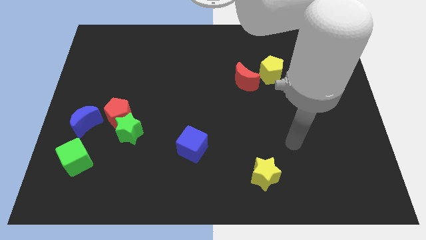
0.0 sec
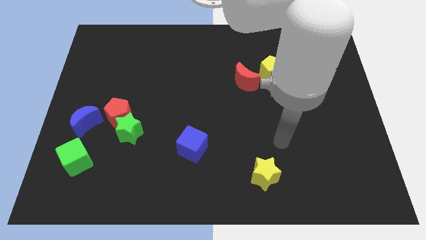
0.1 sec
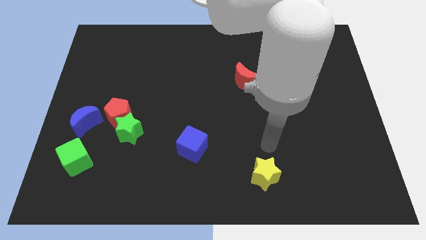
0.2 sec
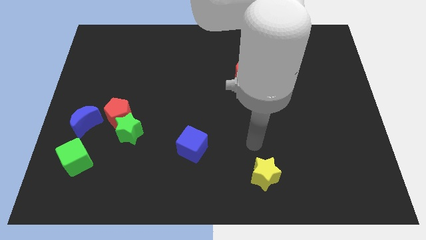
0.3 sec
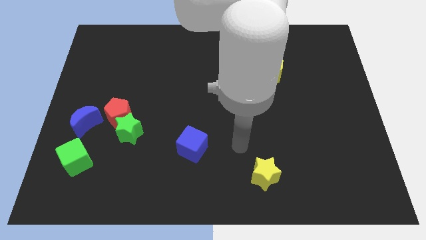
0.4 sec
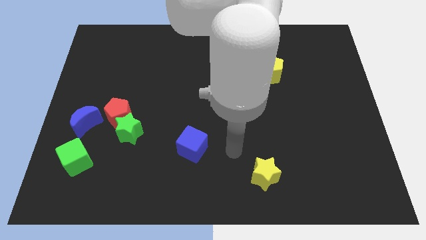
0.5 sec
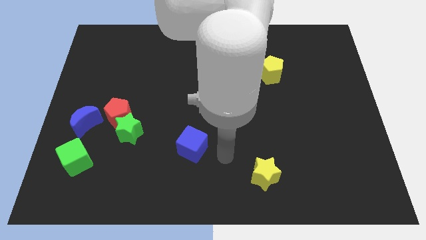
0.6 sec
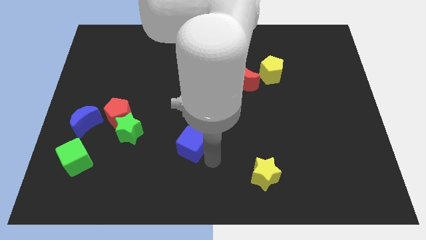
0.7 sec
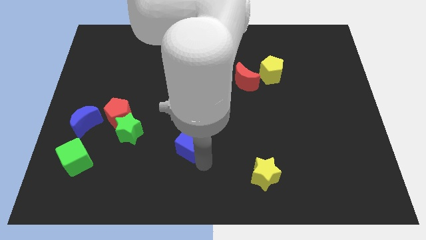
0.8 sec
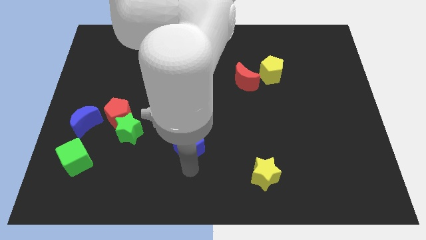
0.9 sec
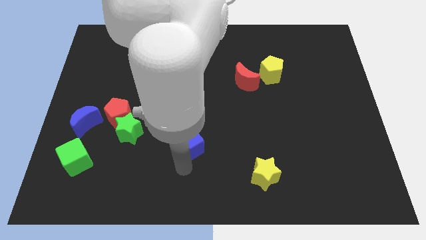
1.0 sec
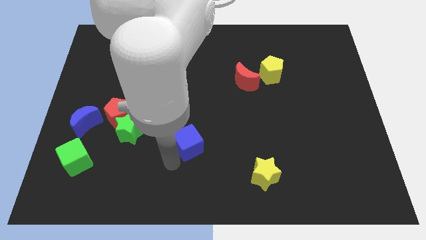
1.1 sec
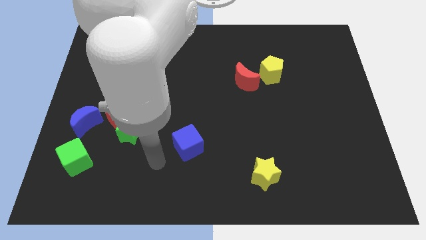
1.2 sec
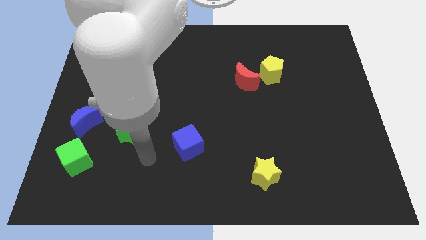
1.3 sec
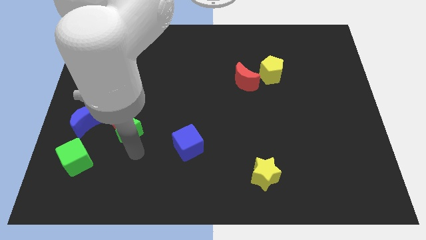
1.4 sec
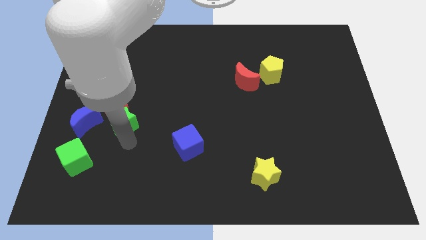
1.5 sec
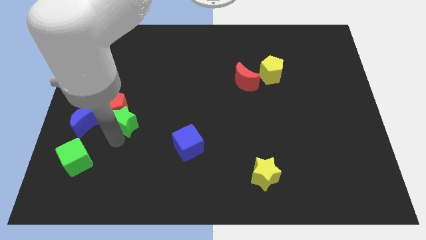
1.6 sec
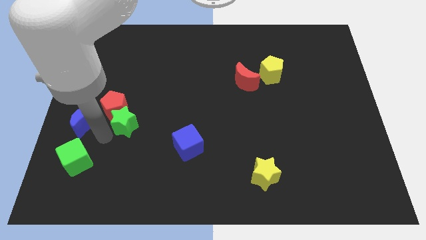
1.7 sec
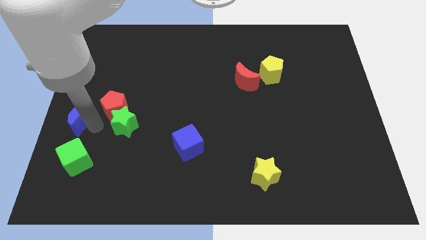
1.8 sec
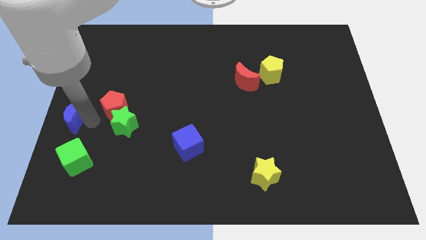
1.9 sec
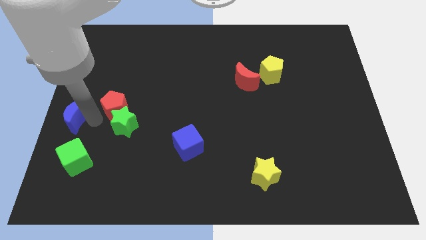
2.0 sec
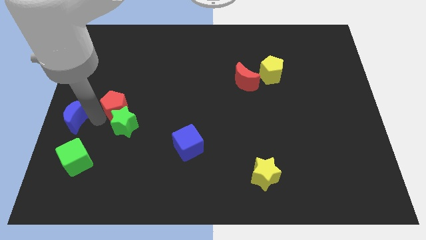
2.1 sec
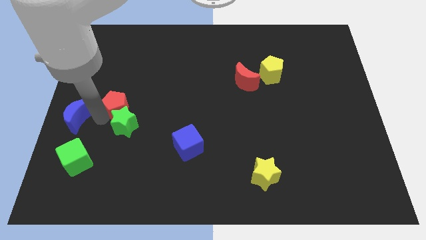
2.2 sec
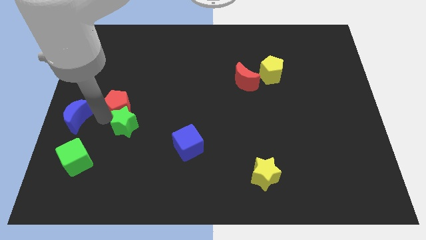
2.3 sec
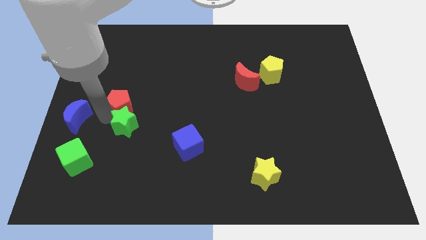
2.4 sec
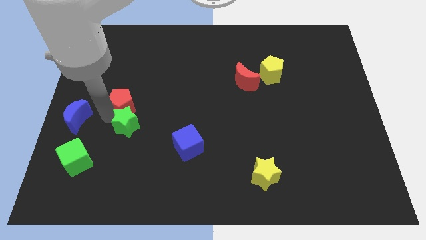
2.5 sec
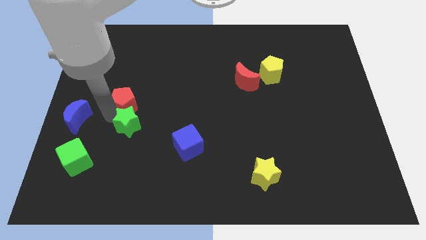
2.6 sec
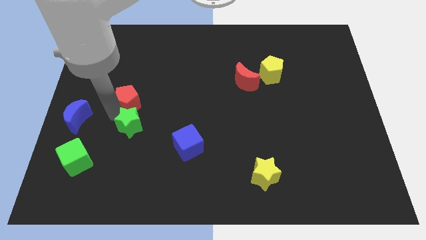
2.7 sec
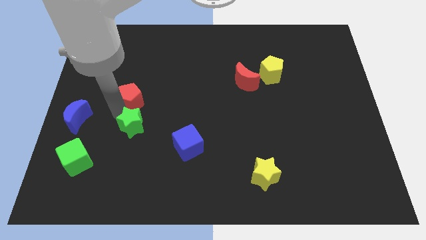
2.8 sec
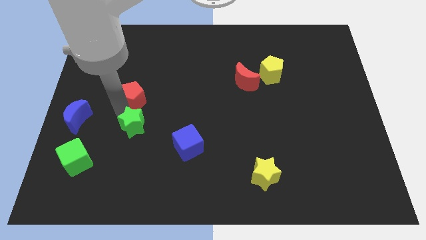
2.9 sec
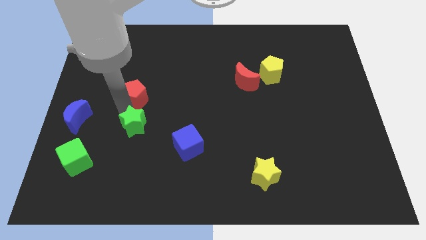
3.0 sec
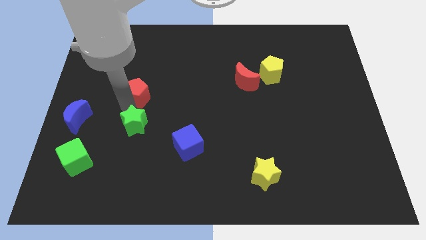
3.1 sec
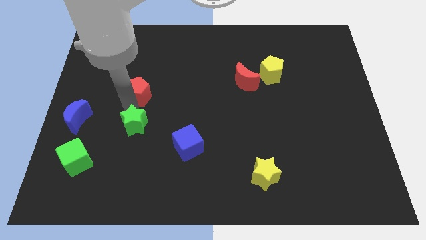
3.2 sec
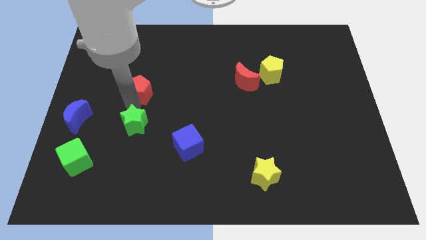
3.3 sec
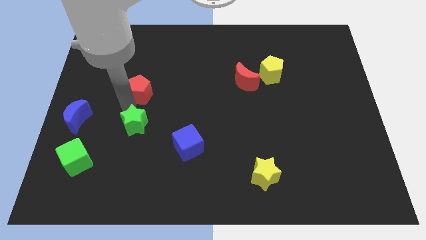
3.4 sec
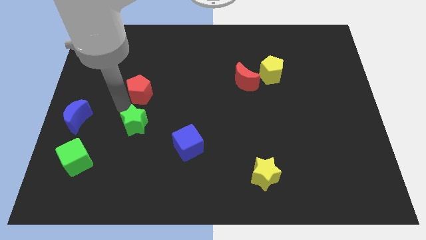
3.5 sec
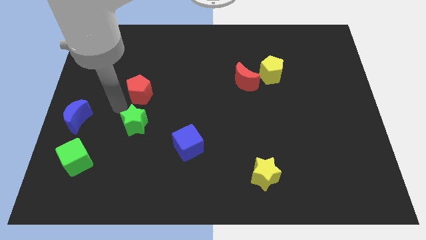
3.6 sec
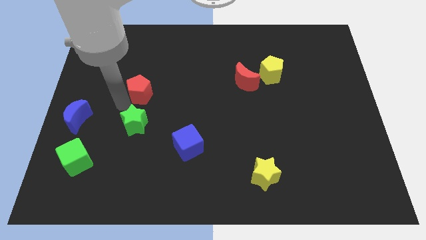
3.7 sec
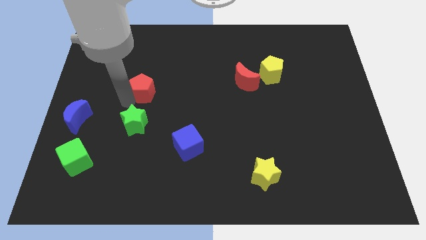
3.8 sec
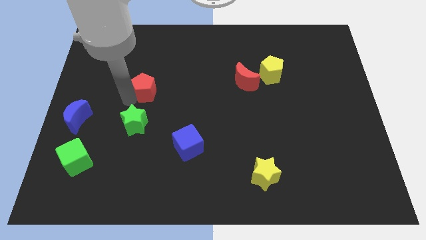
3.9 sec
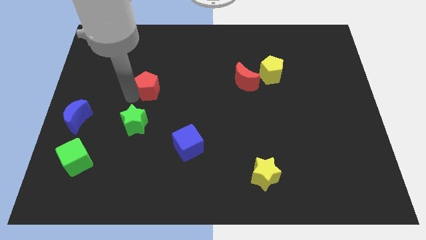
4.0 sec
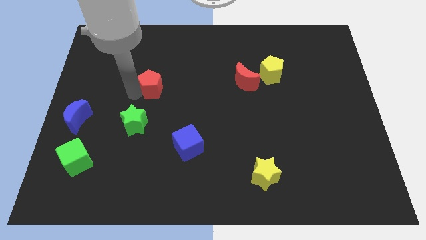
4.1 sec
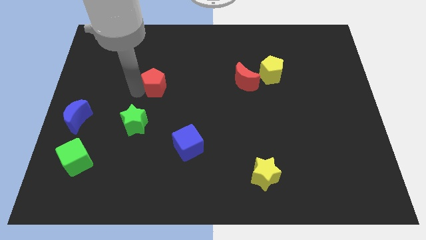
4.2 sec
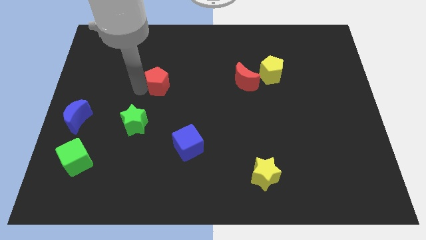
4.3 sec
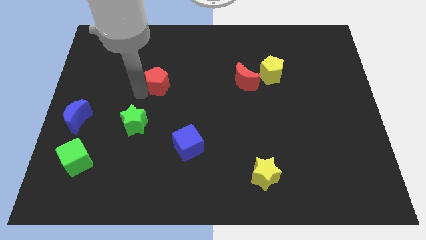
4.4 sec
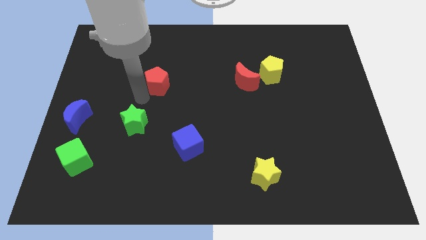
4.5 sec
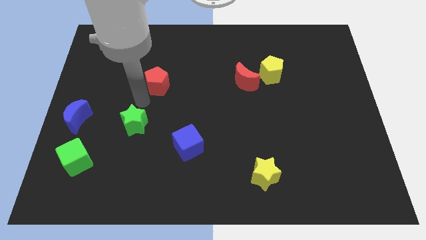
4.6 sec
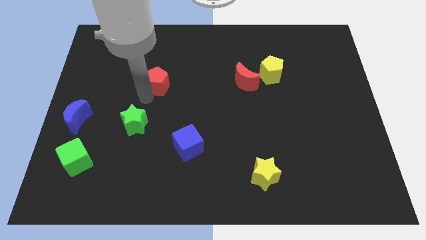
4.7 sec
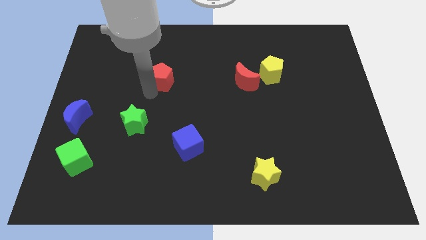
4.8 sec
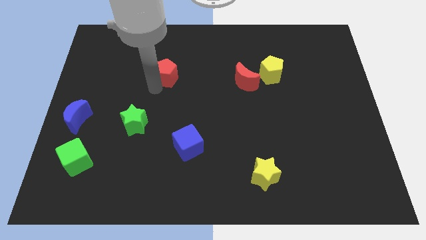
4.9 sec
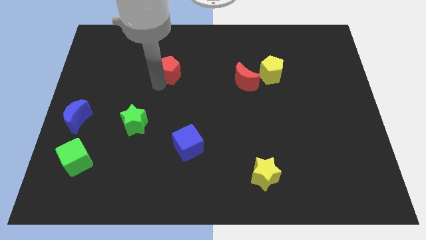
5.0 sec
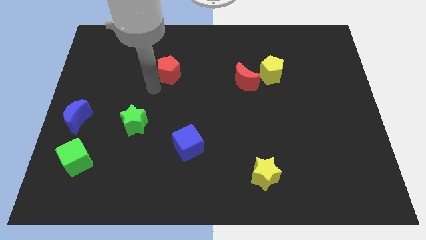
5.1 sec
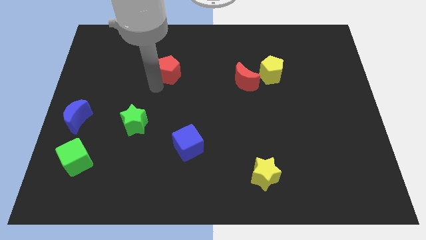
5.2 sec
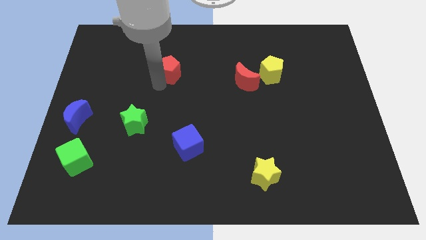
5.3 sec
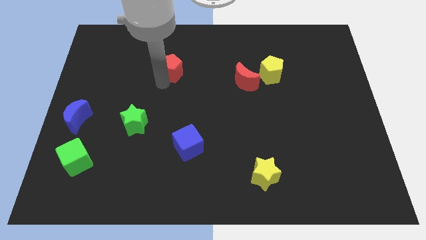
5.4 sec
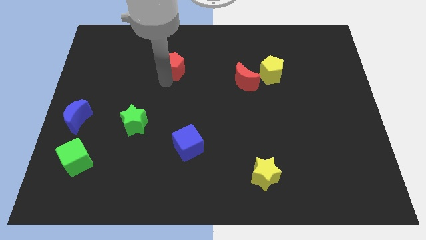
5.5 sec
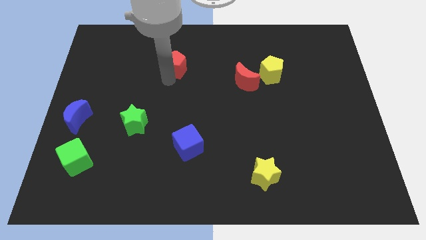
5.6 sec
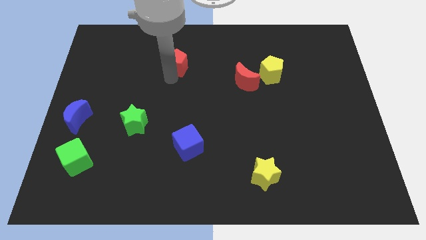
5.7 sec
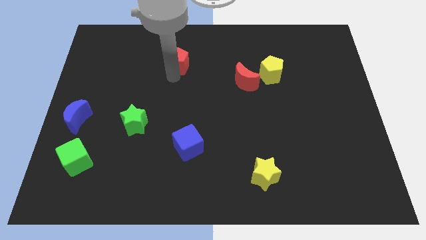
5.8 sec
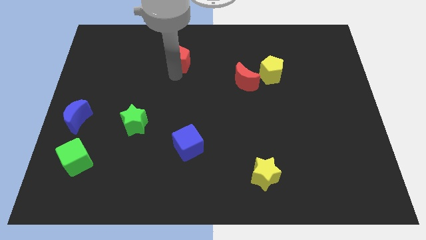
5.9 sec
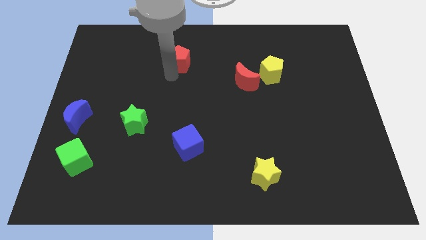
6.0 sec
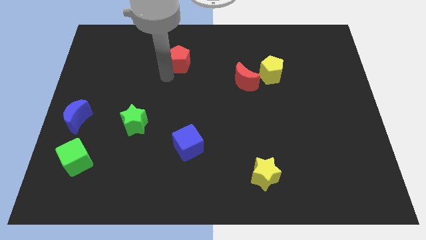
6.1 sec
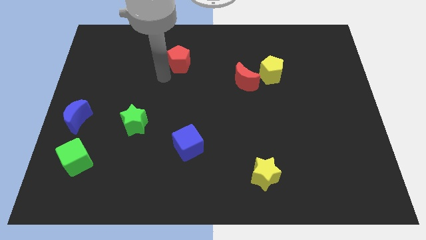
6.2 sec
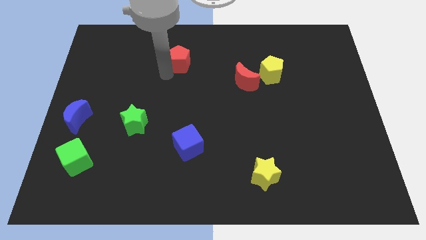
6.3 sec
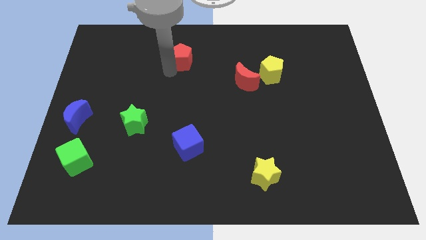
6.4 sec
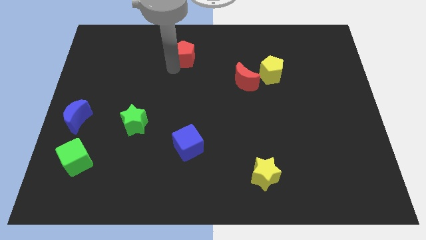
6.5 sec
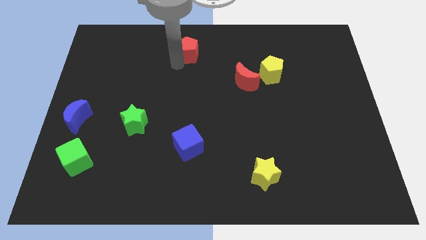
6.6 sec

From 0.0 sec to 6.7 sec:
put the red pentagon to the top side

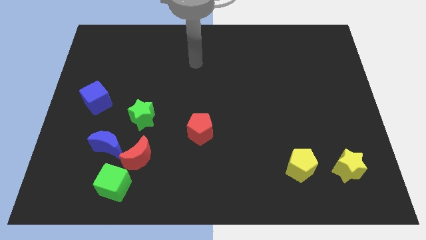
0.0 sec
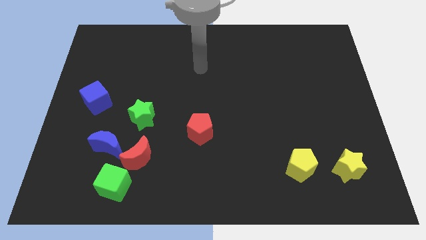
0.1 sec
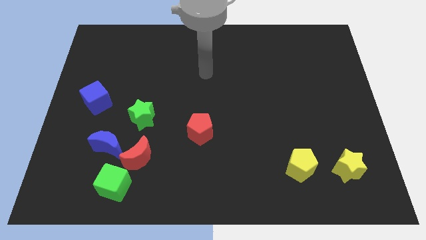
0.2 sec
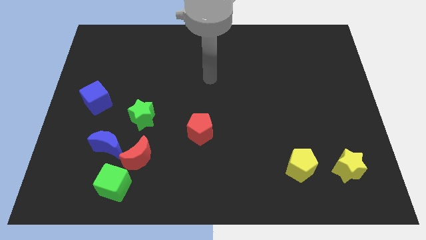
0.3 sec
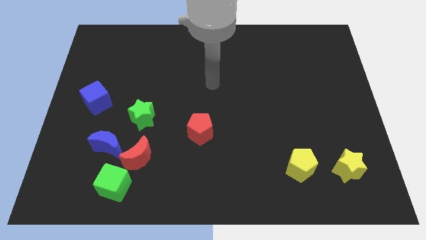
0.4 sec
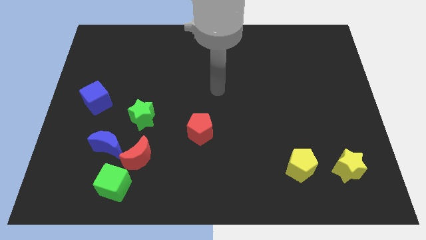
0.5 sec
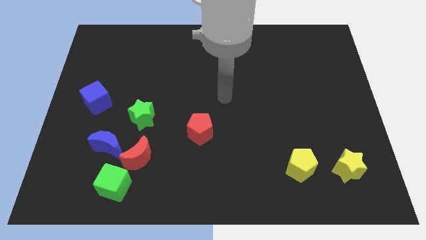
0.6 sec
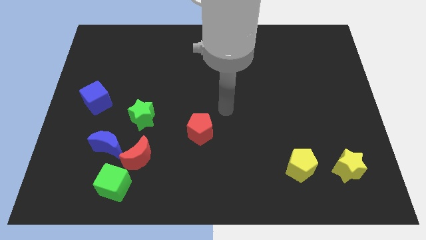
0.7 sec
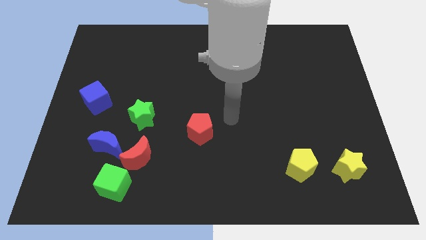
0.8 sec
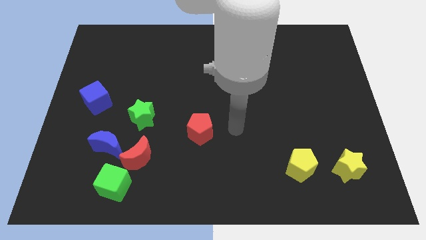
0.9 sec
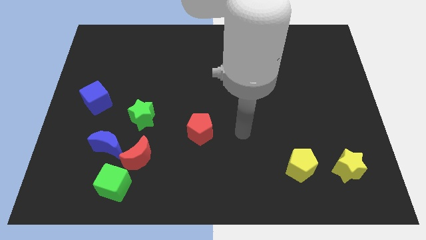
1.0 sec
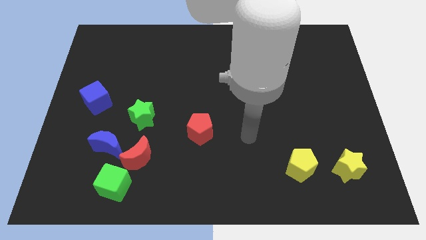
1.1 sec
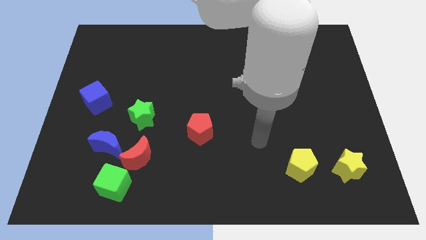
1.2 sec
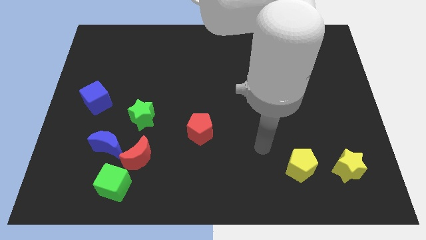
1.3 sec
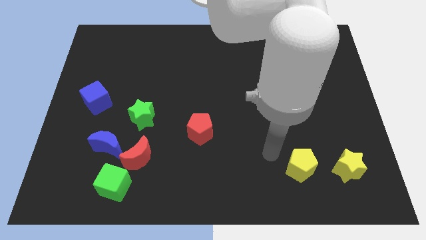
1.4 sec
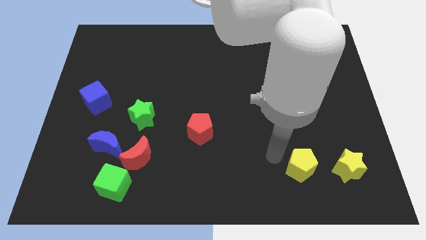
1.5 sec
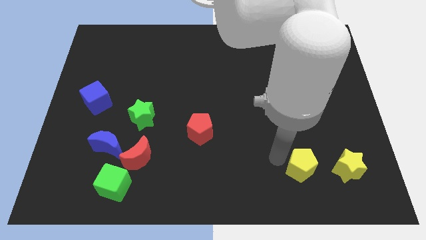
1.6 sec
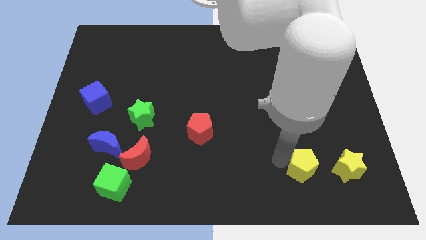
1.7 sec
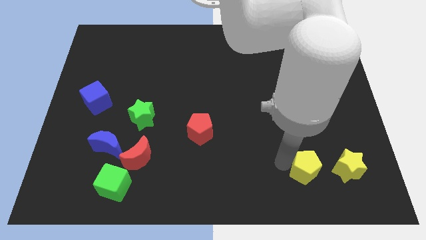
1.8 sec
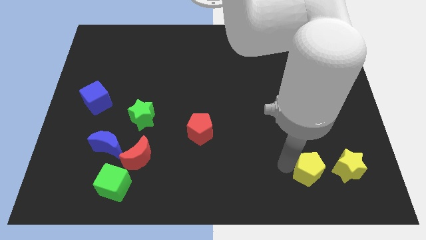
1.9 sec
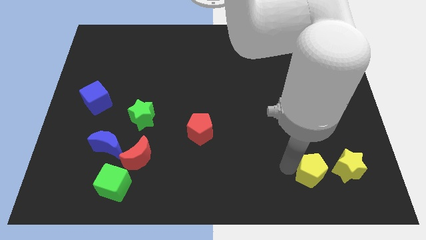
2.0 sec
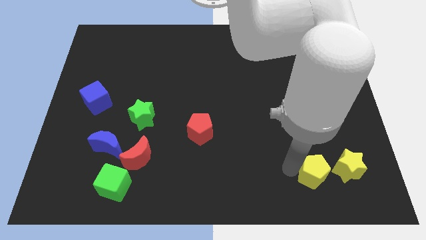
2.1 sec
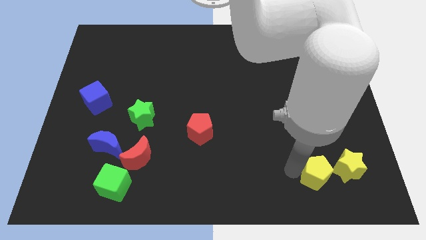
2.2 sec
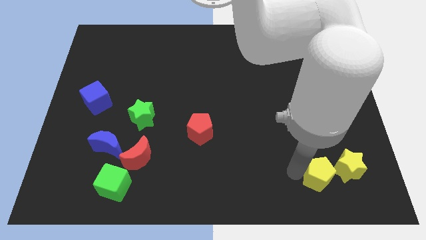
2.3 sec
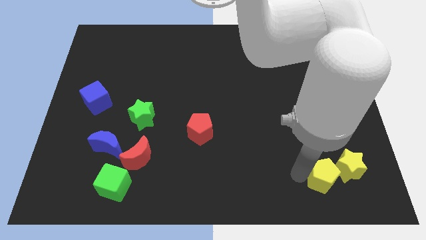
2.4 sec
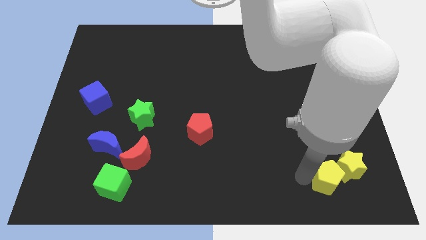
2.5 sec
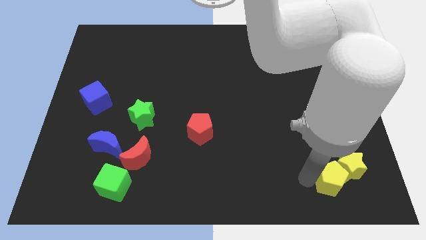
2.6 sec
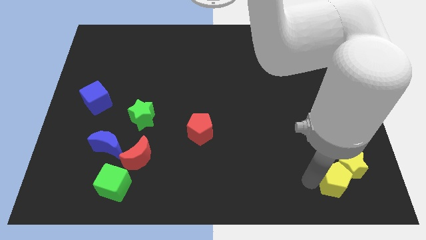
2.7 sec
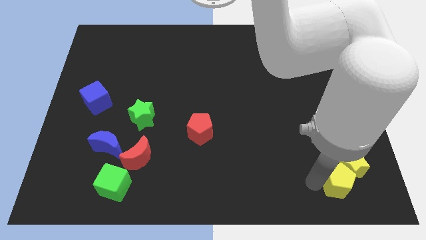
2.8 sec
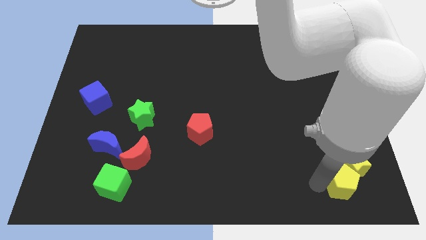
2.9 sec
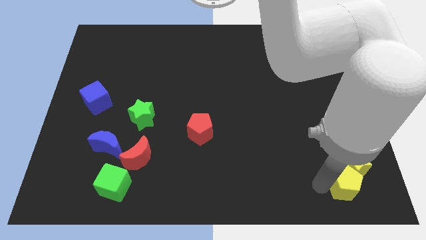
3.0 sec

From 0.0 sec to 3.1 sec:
push the yellow pentagon to the lower right corner
